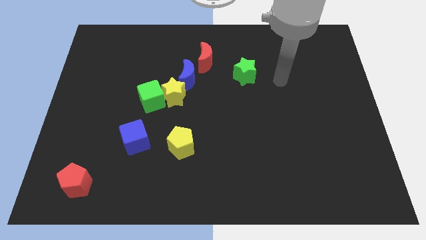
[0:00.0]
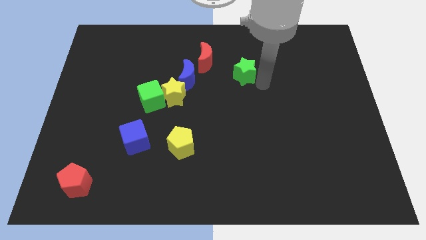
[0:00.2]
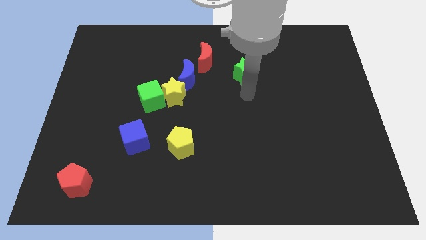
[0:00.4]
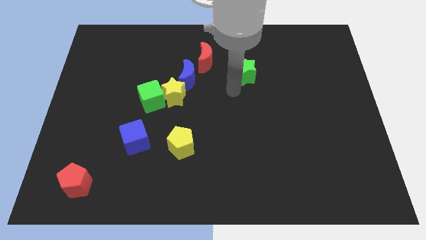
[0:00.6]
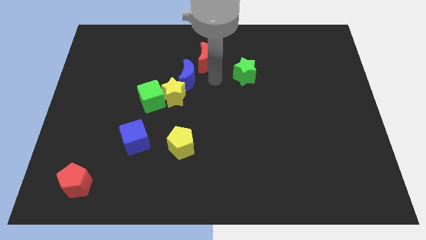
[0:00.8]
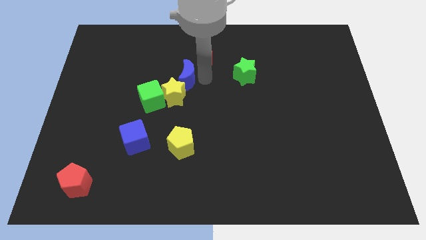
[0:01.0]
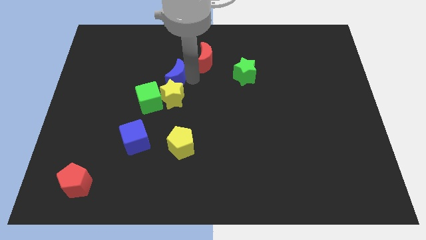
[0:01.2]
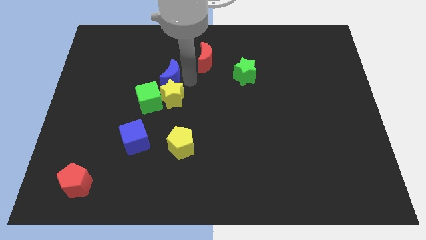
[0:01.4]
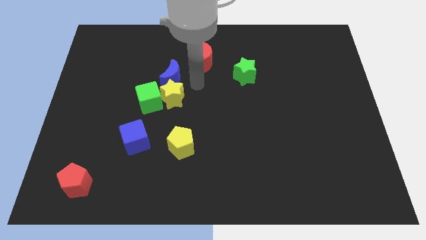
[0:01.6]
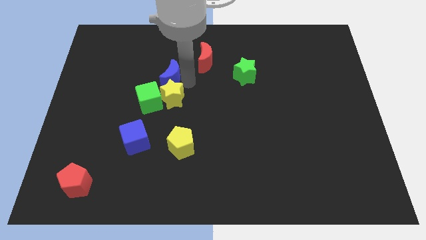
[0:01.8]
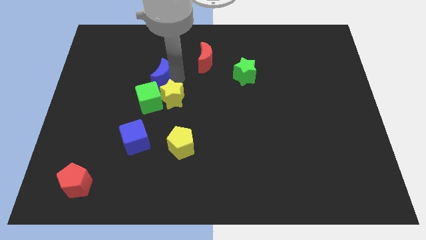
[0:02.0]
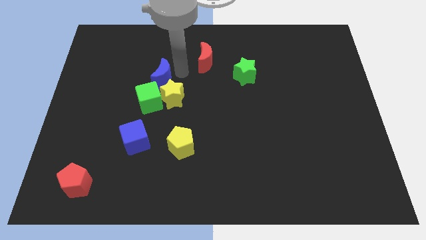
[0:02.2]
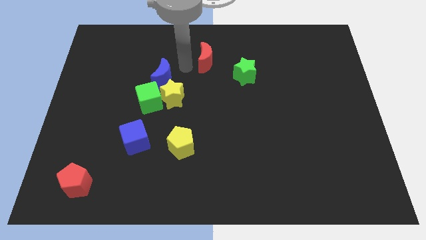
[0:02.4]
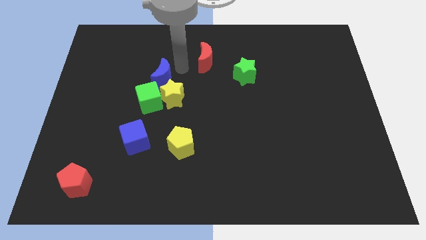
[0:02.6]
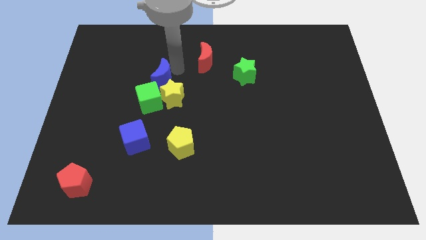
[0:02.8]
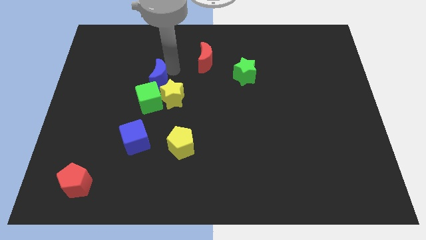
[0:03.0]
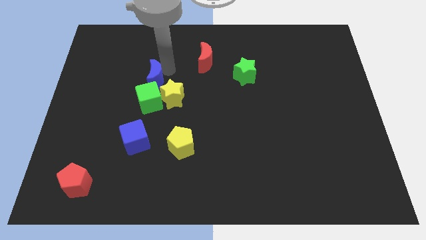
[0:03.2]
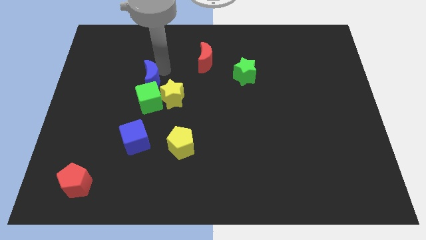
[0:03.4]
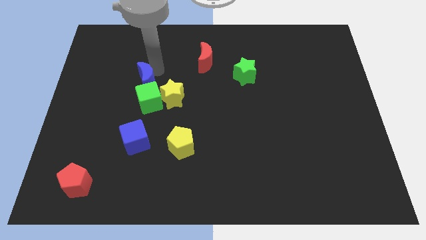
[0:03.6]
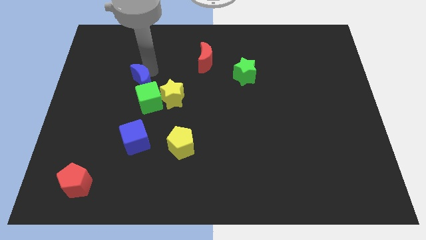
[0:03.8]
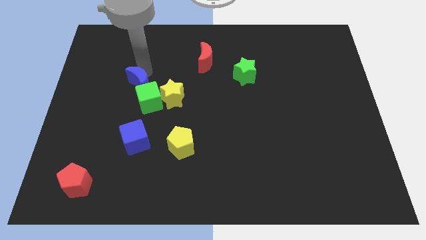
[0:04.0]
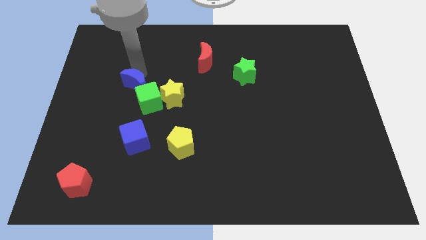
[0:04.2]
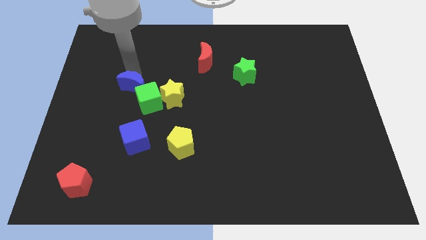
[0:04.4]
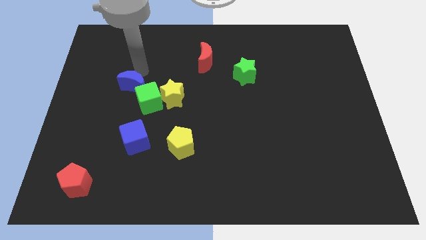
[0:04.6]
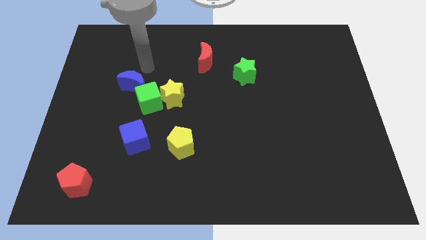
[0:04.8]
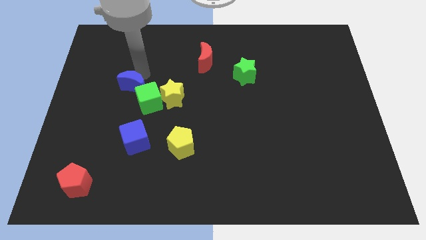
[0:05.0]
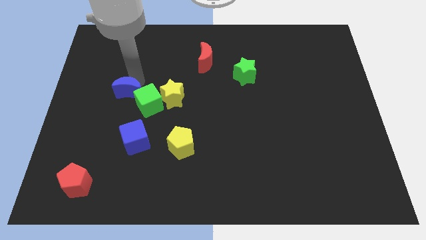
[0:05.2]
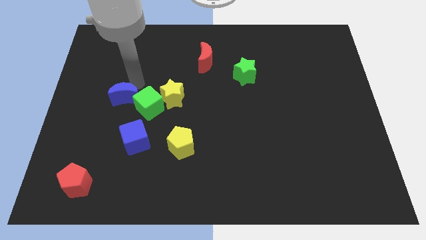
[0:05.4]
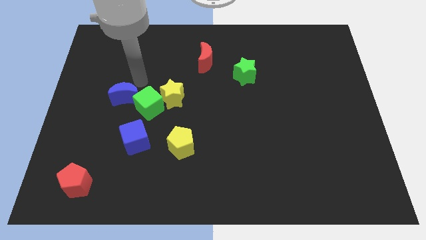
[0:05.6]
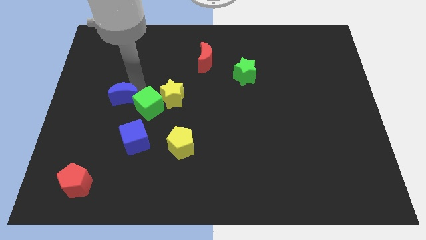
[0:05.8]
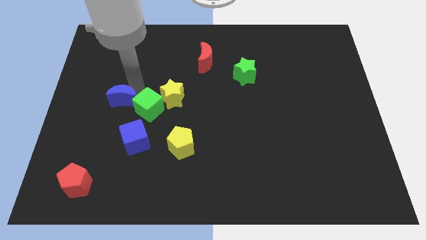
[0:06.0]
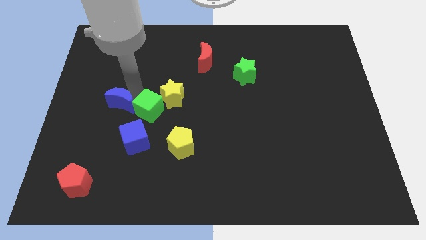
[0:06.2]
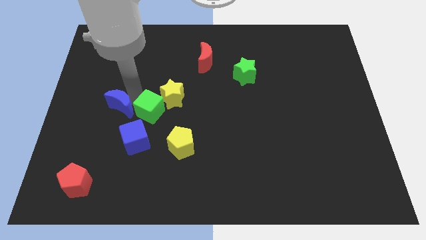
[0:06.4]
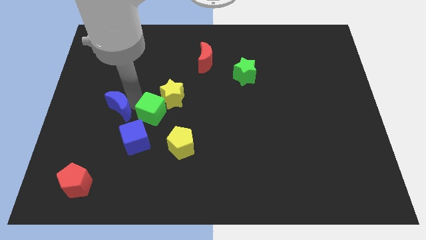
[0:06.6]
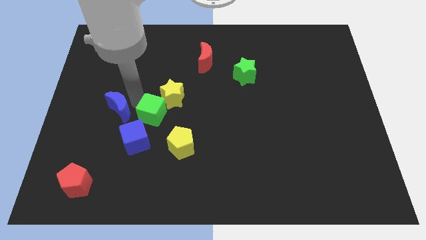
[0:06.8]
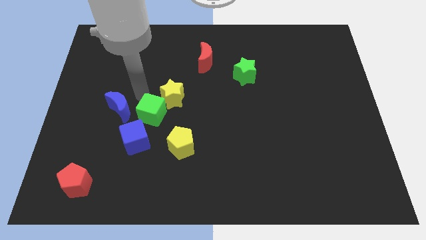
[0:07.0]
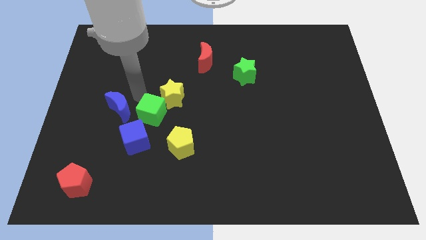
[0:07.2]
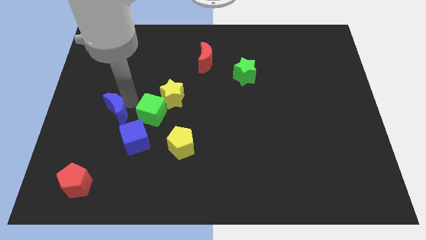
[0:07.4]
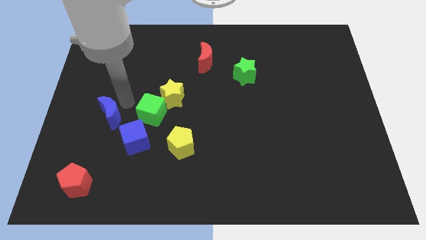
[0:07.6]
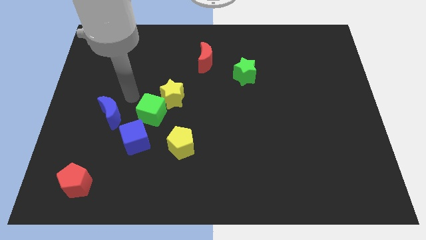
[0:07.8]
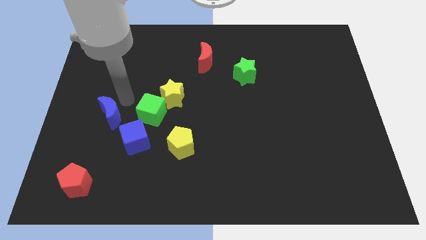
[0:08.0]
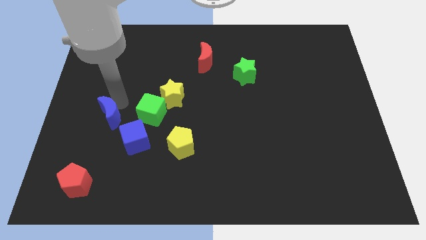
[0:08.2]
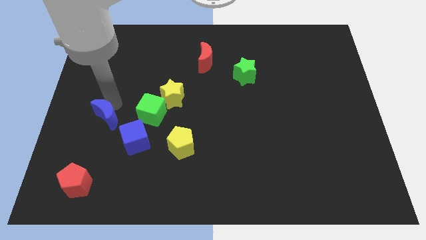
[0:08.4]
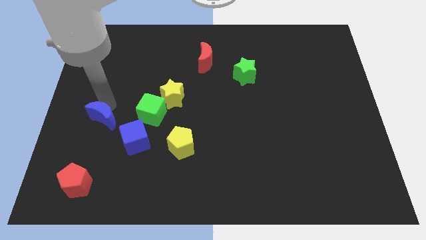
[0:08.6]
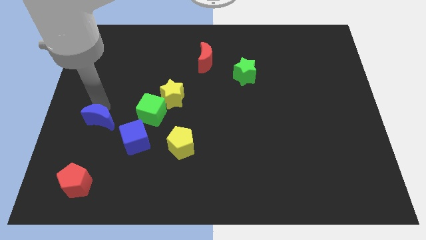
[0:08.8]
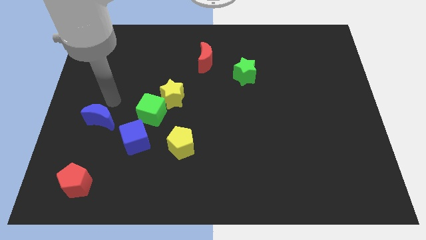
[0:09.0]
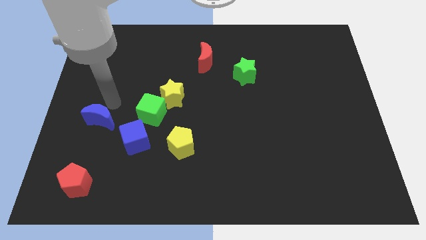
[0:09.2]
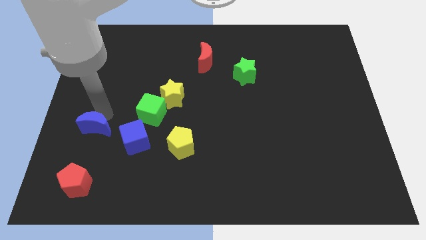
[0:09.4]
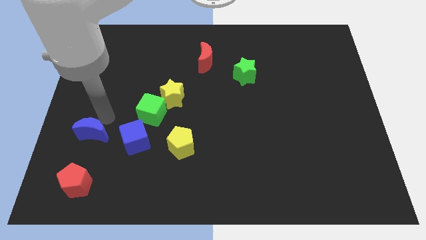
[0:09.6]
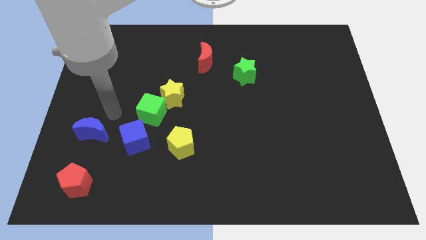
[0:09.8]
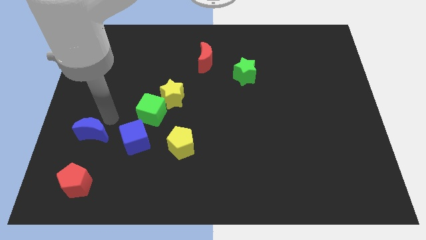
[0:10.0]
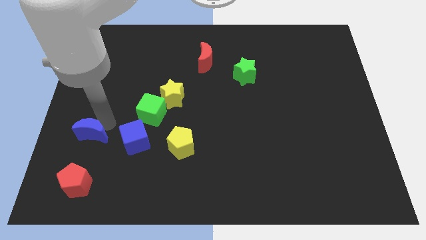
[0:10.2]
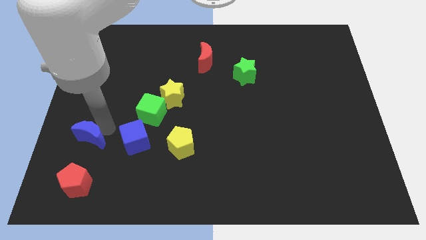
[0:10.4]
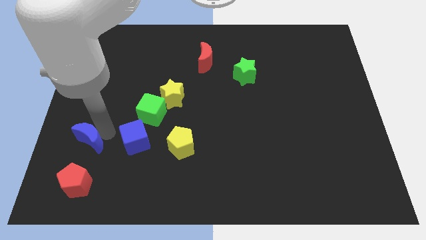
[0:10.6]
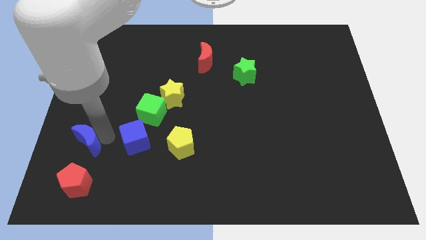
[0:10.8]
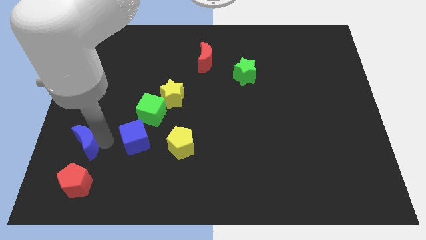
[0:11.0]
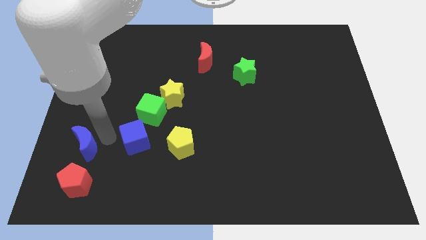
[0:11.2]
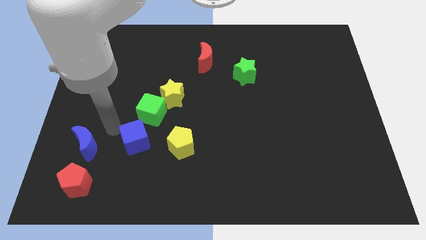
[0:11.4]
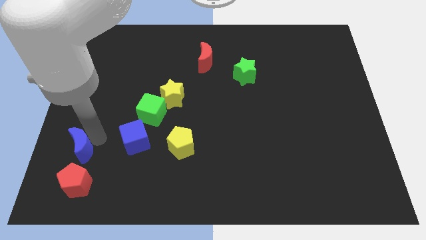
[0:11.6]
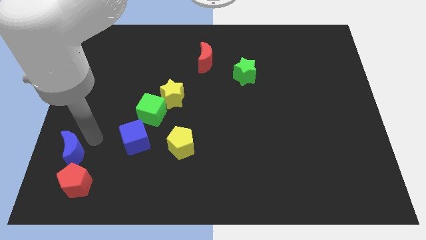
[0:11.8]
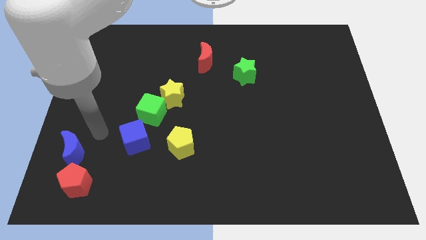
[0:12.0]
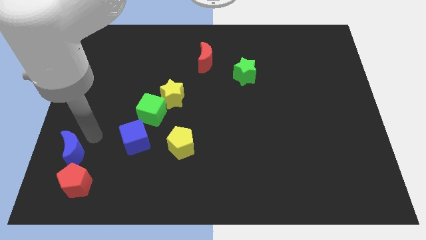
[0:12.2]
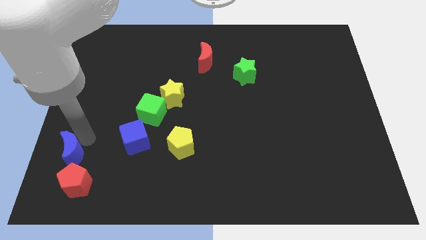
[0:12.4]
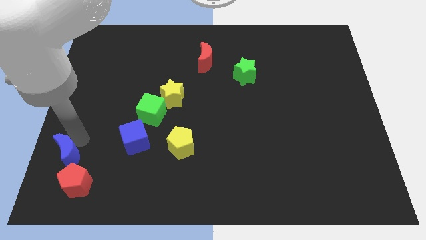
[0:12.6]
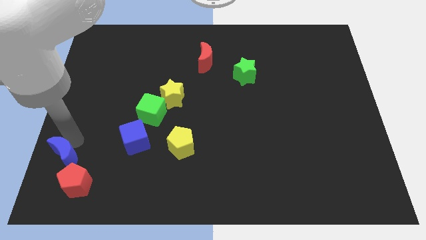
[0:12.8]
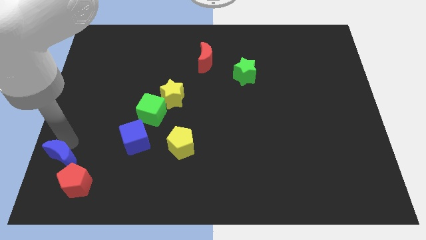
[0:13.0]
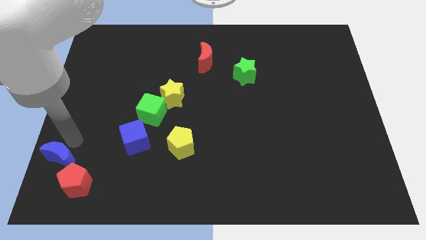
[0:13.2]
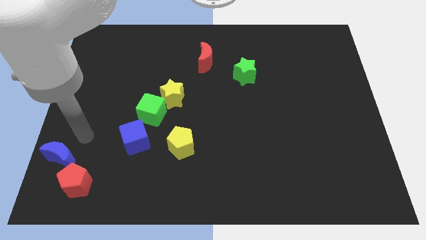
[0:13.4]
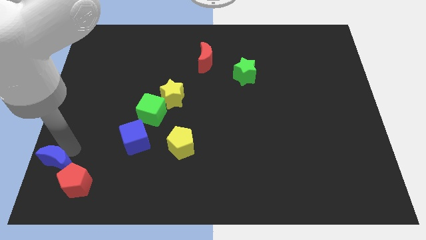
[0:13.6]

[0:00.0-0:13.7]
slide the blue moon to the bottom left
